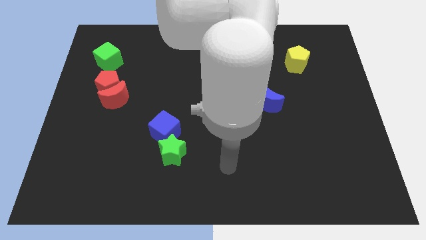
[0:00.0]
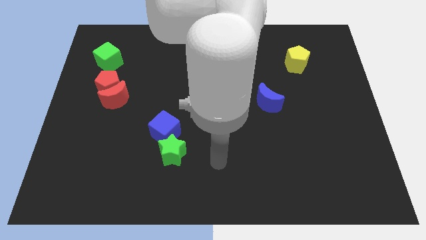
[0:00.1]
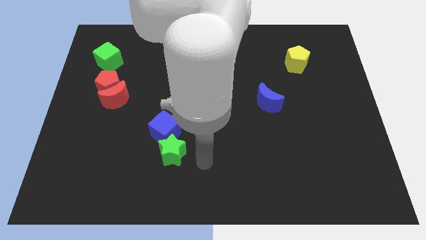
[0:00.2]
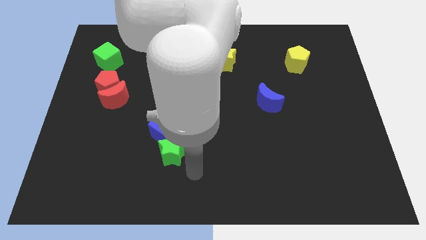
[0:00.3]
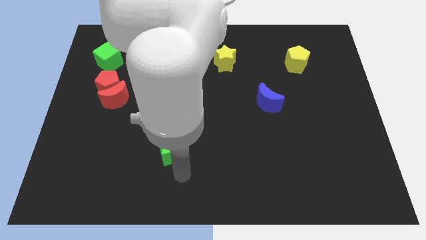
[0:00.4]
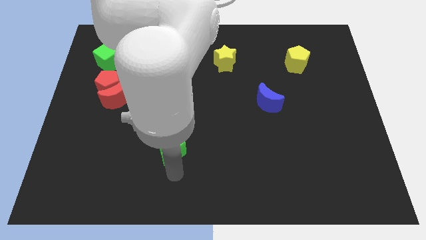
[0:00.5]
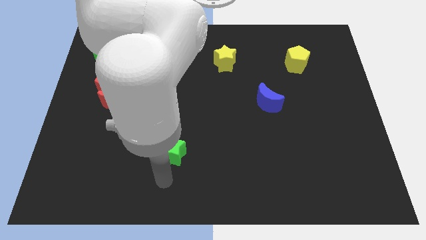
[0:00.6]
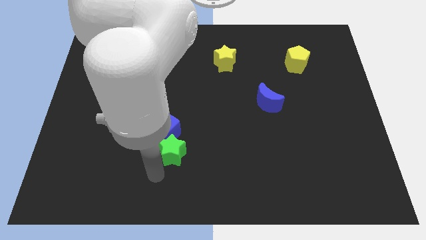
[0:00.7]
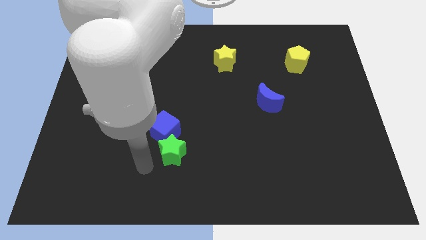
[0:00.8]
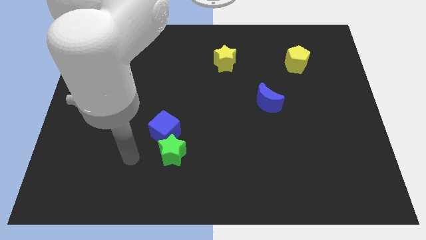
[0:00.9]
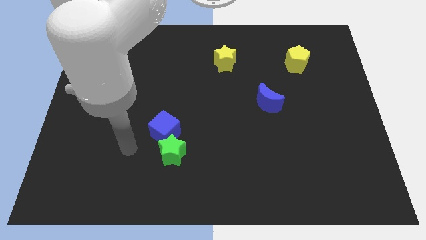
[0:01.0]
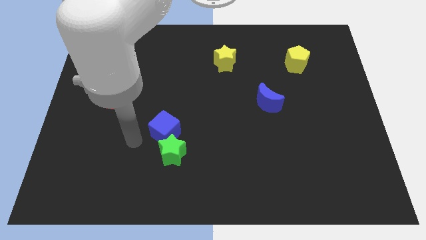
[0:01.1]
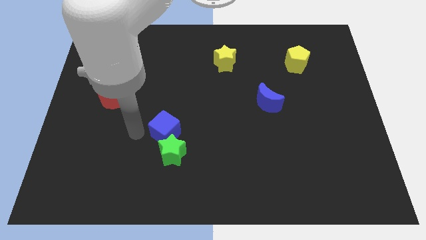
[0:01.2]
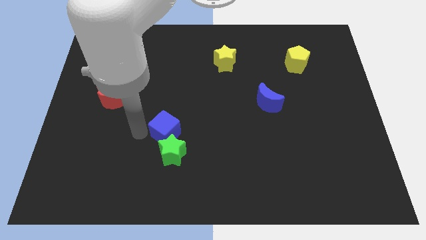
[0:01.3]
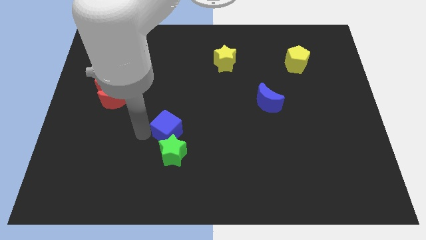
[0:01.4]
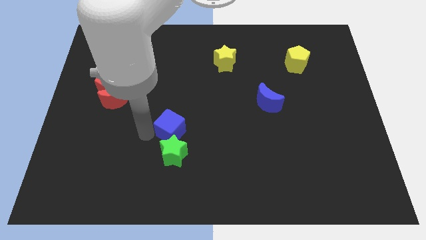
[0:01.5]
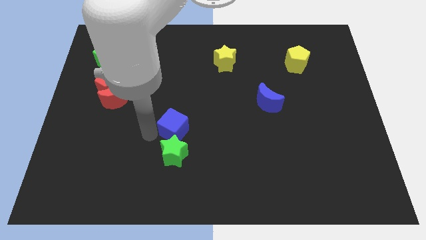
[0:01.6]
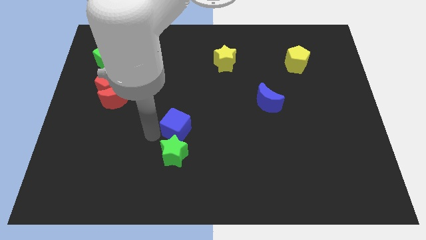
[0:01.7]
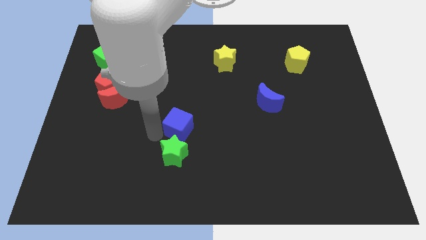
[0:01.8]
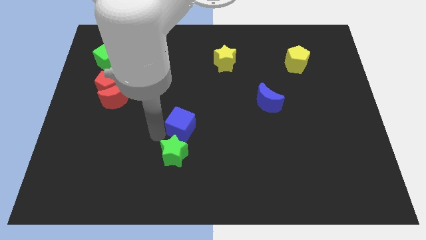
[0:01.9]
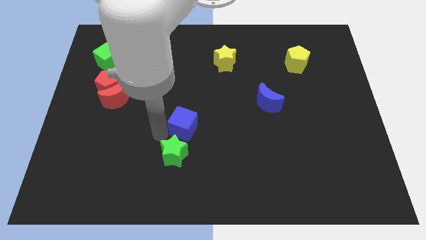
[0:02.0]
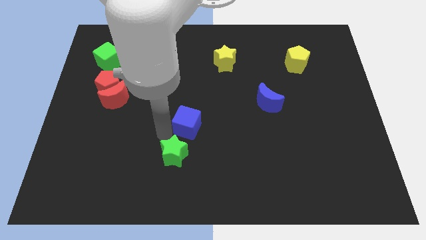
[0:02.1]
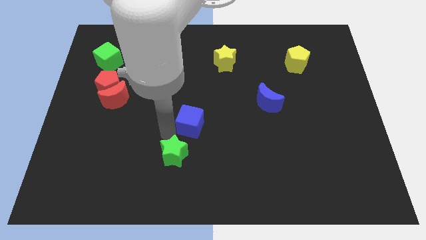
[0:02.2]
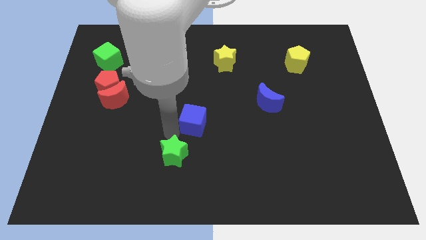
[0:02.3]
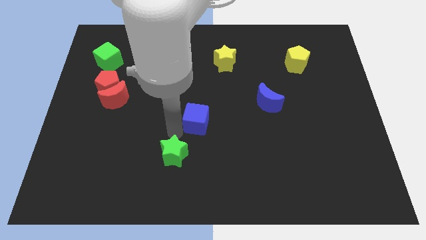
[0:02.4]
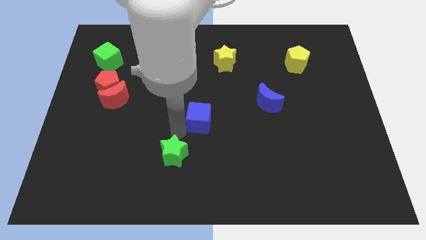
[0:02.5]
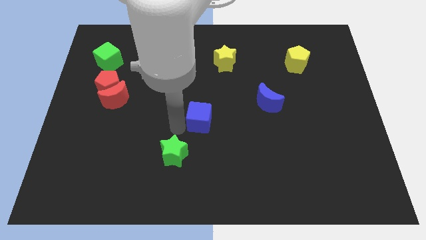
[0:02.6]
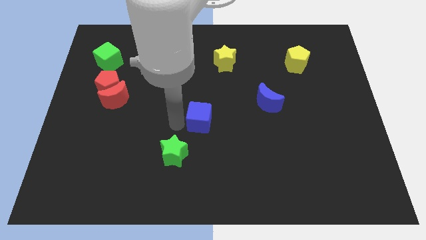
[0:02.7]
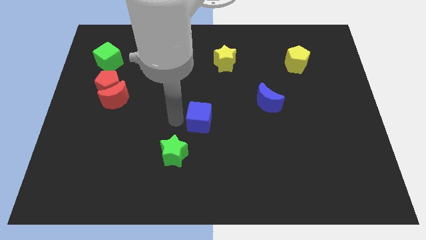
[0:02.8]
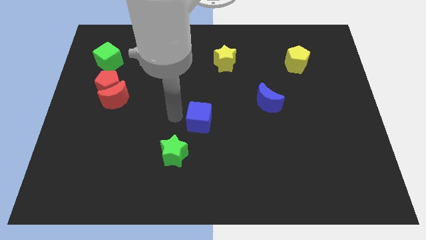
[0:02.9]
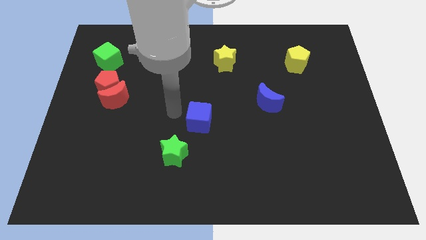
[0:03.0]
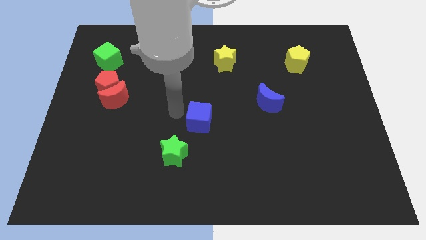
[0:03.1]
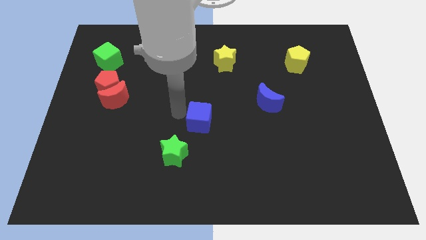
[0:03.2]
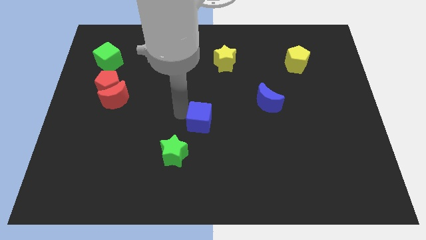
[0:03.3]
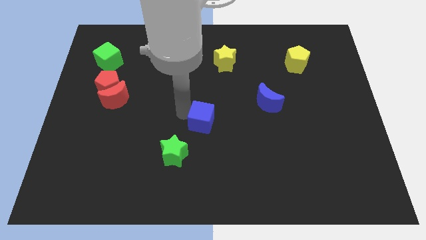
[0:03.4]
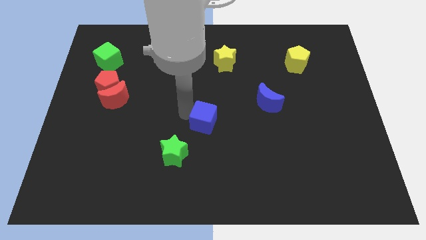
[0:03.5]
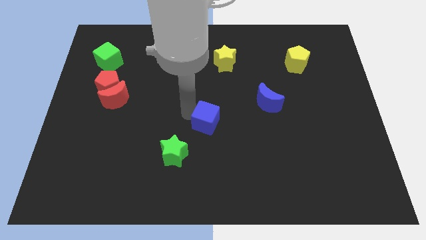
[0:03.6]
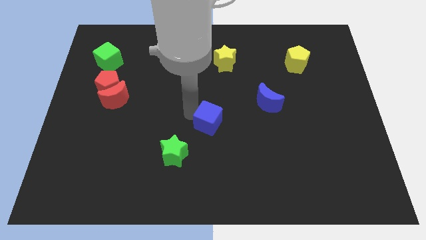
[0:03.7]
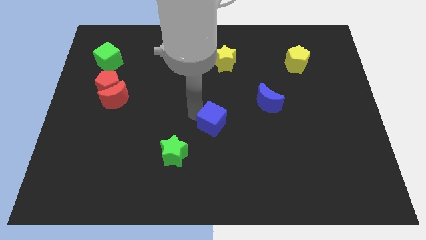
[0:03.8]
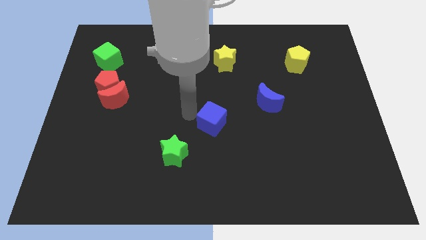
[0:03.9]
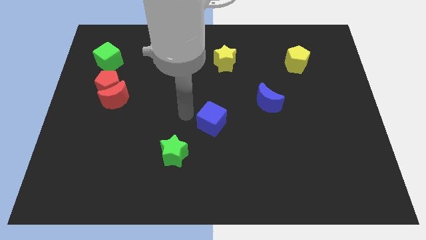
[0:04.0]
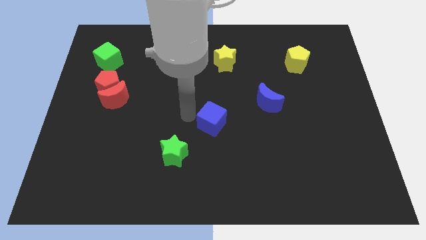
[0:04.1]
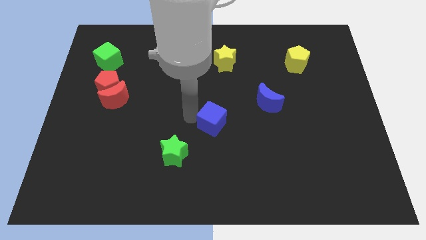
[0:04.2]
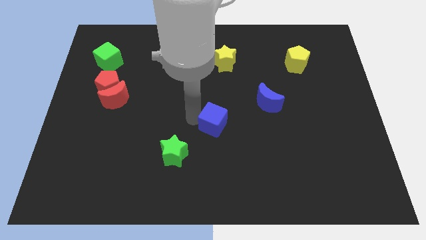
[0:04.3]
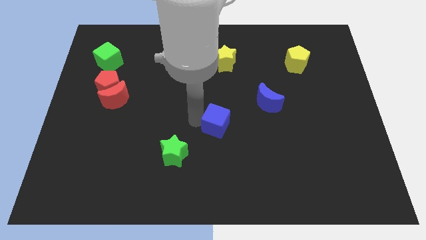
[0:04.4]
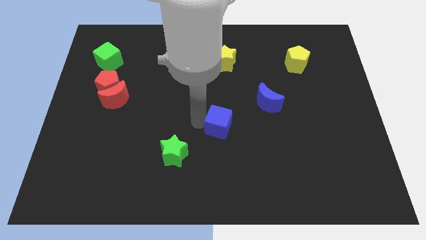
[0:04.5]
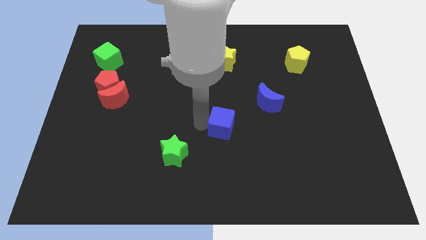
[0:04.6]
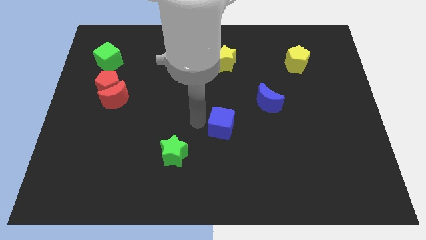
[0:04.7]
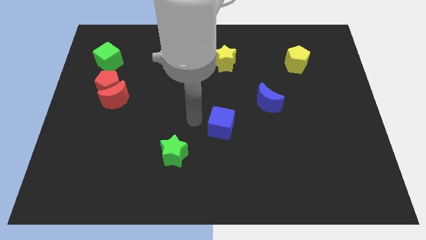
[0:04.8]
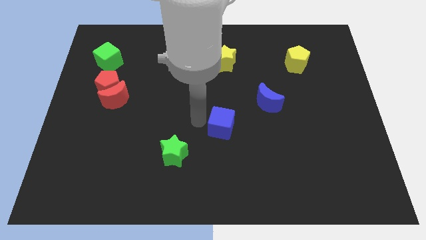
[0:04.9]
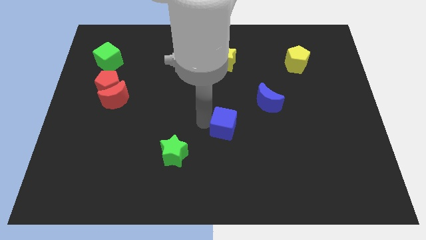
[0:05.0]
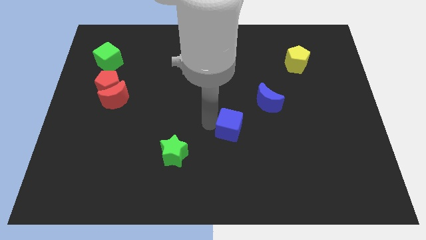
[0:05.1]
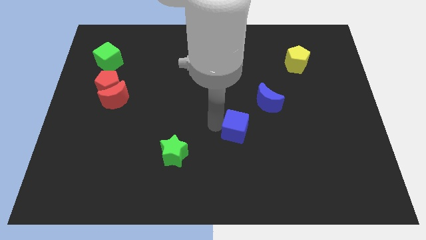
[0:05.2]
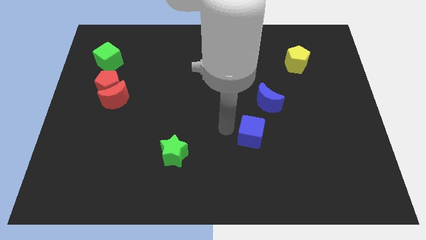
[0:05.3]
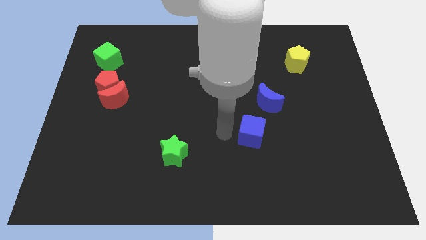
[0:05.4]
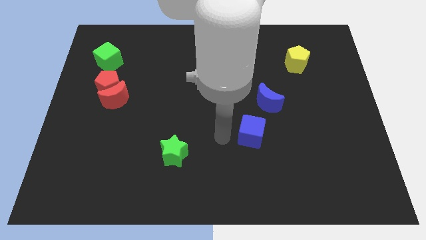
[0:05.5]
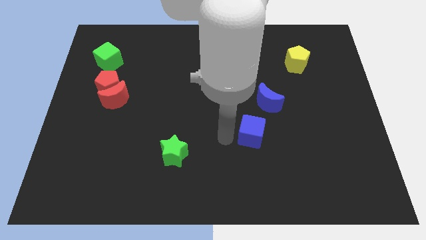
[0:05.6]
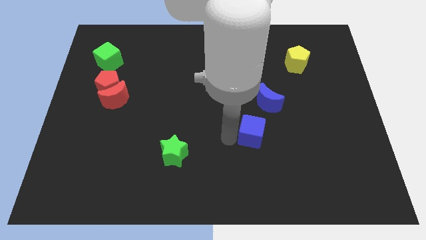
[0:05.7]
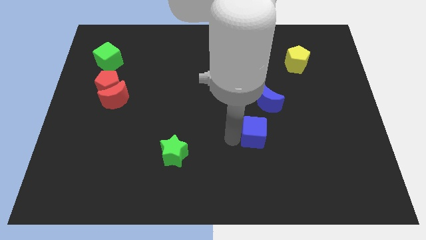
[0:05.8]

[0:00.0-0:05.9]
move the blue cube to the right

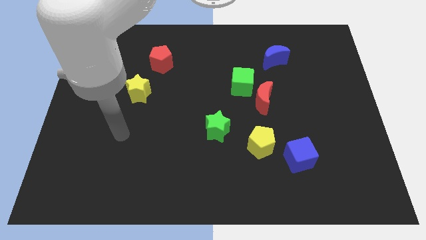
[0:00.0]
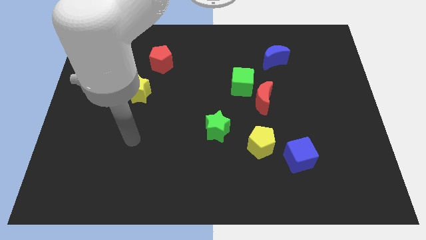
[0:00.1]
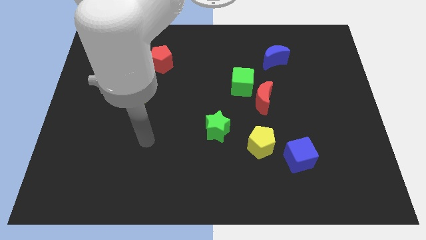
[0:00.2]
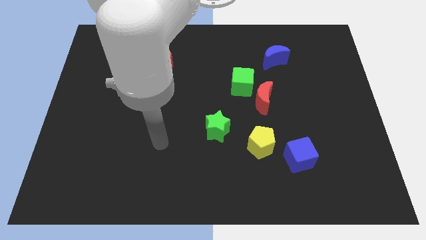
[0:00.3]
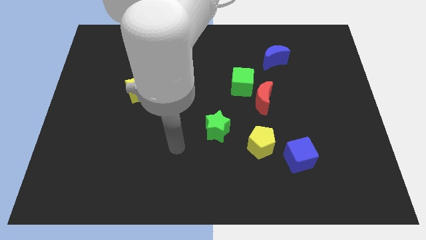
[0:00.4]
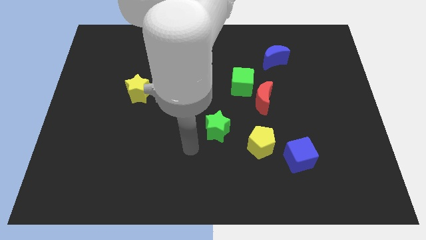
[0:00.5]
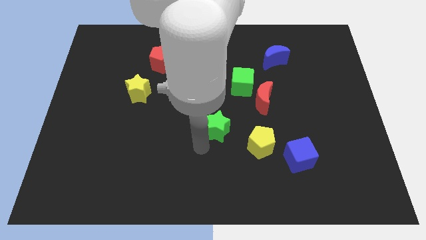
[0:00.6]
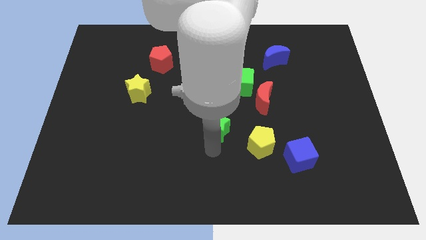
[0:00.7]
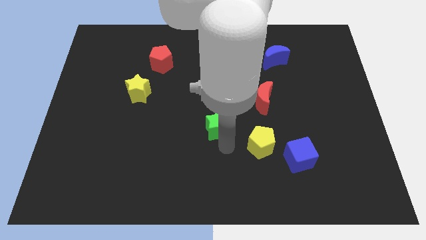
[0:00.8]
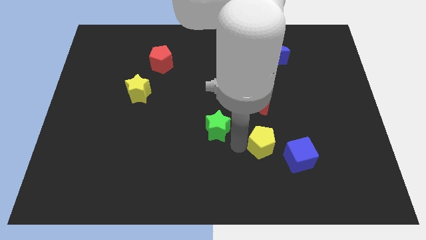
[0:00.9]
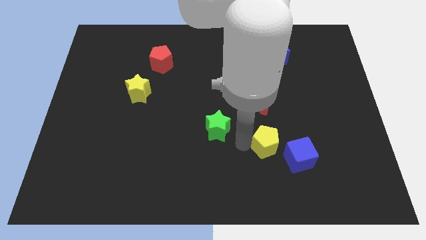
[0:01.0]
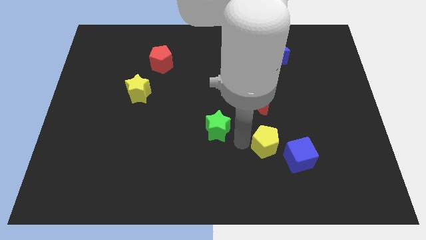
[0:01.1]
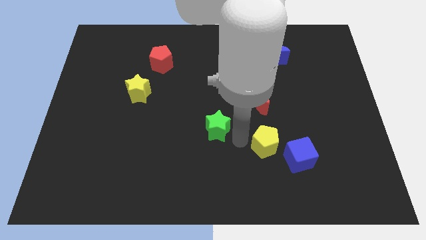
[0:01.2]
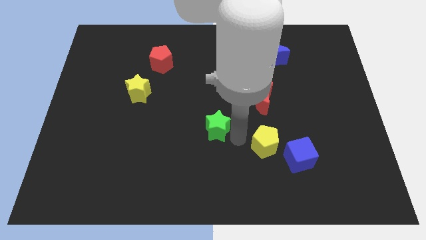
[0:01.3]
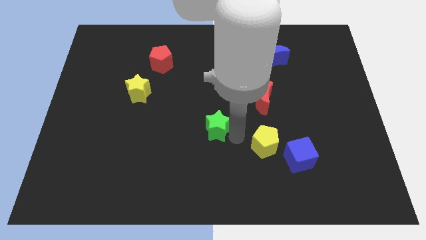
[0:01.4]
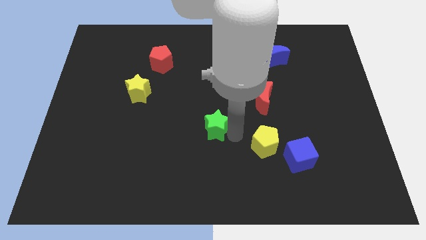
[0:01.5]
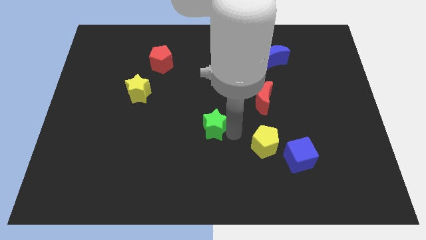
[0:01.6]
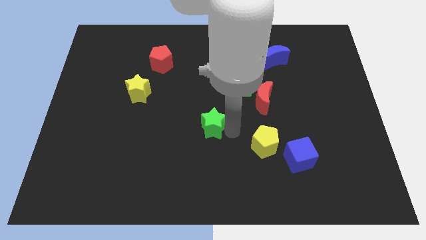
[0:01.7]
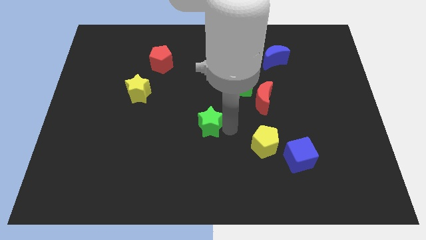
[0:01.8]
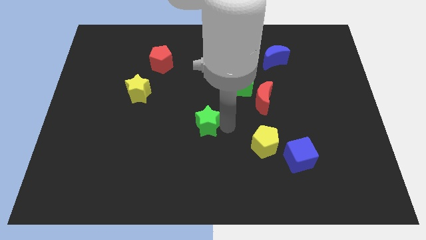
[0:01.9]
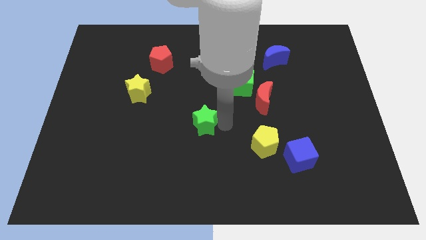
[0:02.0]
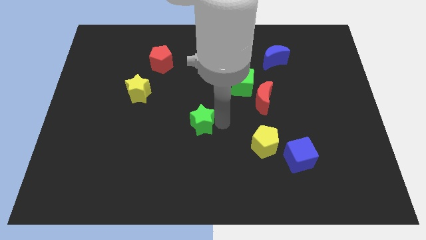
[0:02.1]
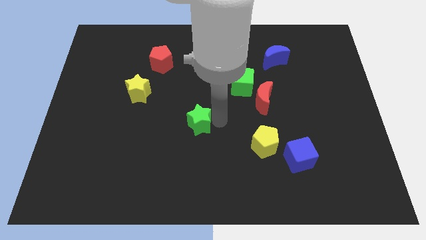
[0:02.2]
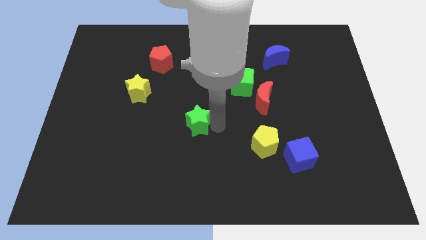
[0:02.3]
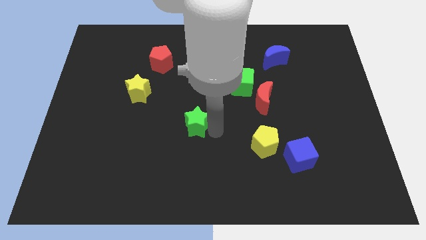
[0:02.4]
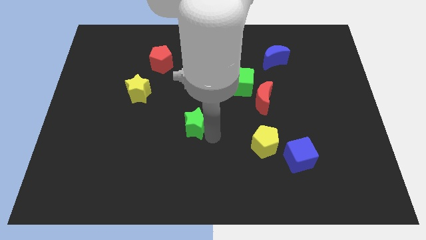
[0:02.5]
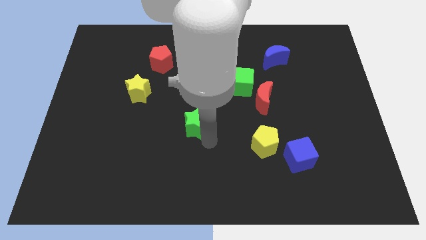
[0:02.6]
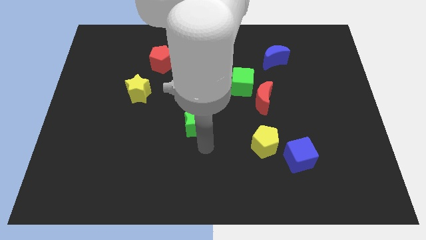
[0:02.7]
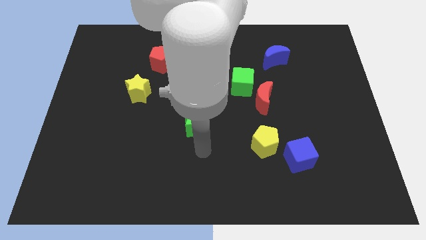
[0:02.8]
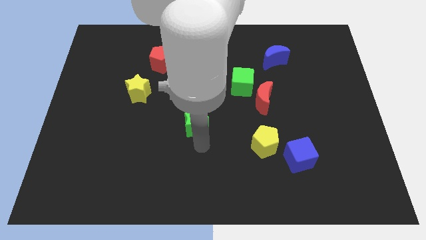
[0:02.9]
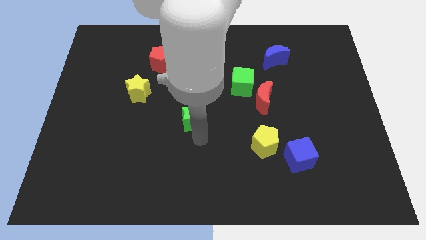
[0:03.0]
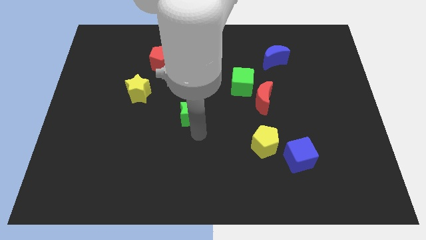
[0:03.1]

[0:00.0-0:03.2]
push the green star up and left diagonally a little
